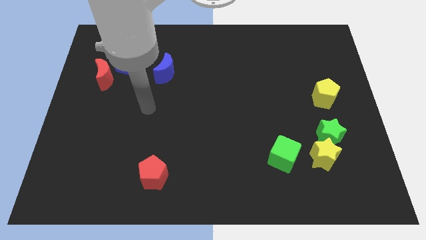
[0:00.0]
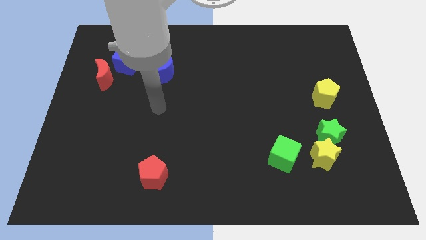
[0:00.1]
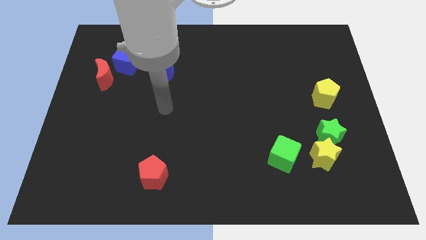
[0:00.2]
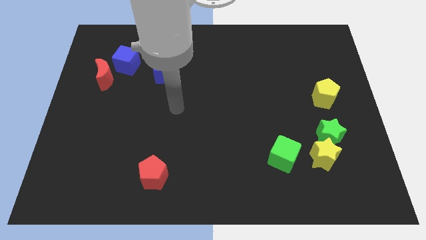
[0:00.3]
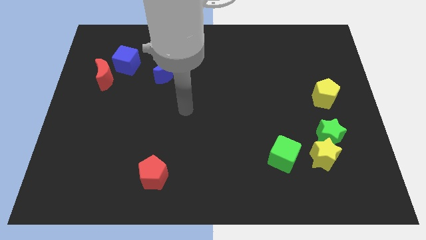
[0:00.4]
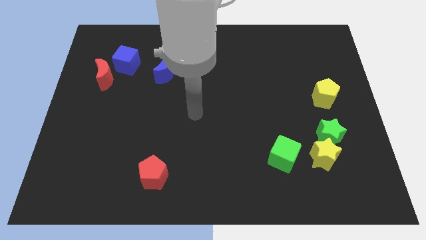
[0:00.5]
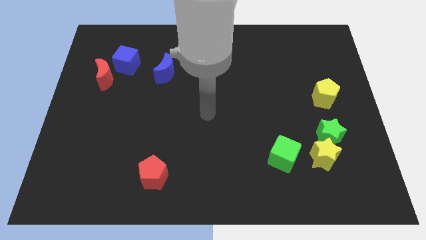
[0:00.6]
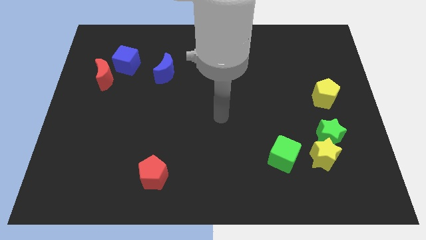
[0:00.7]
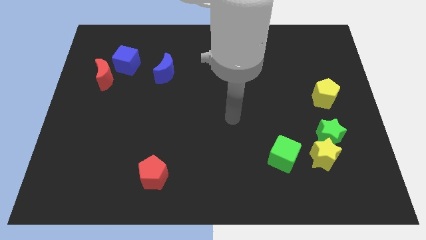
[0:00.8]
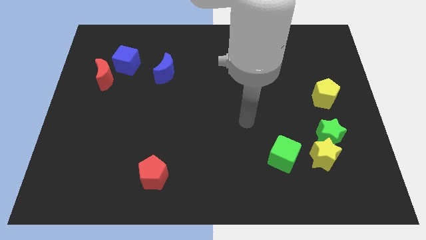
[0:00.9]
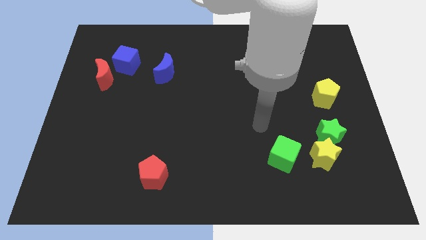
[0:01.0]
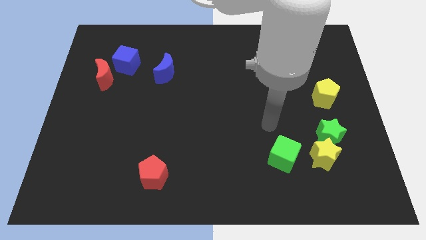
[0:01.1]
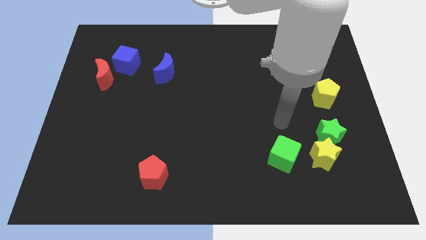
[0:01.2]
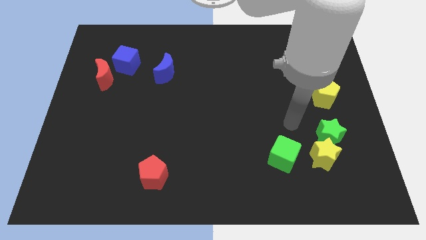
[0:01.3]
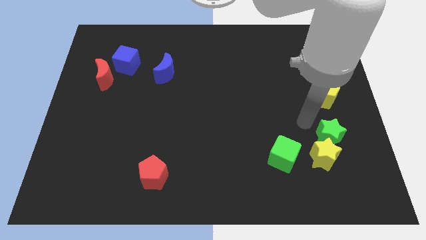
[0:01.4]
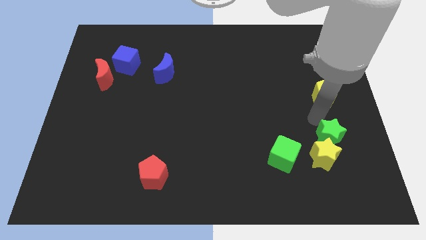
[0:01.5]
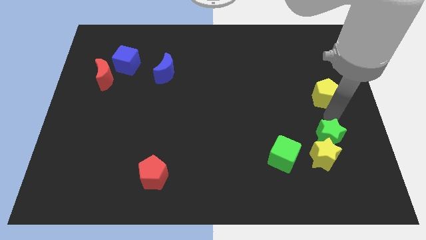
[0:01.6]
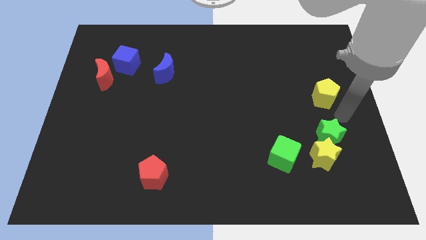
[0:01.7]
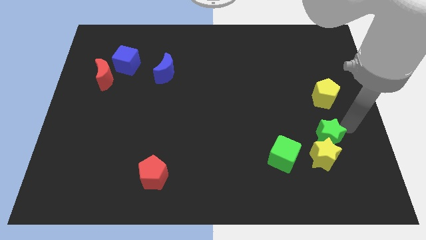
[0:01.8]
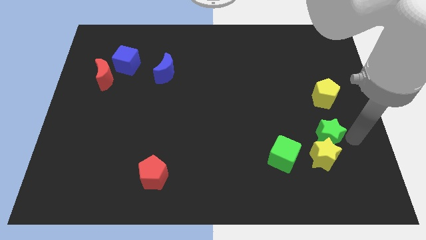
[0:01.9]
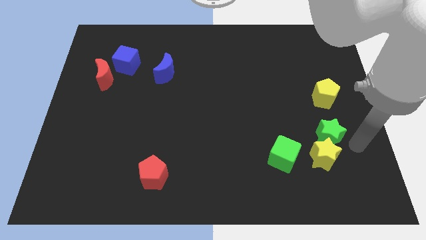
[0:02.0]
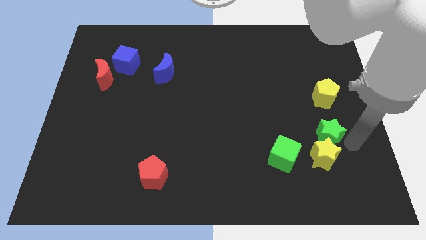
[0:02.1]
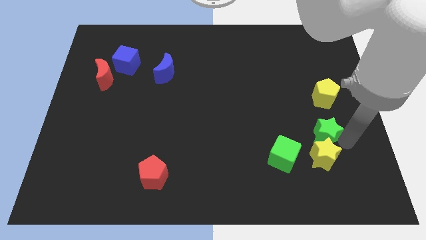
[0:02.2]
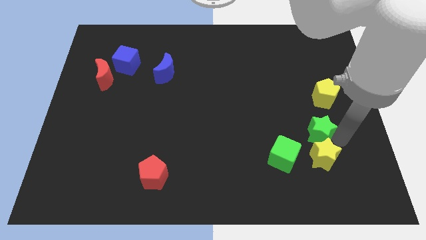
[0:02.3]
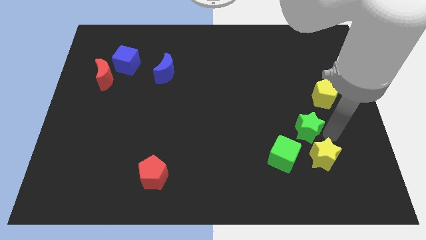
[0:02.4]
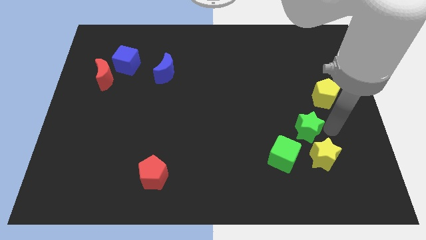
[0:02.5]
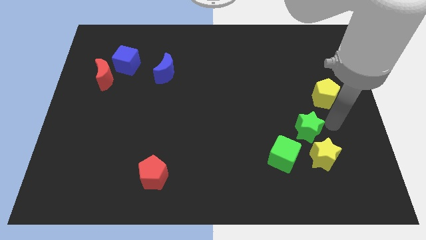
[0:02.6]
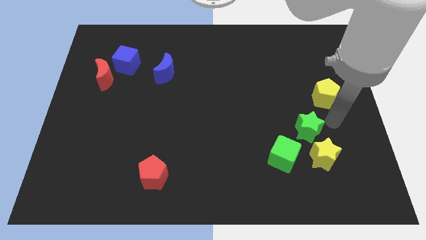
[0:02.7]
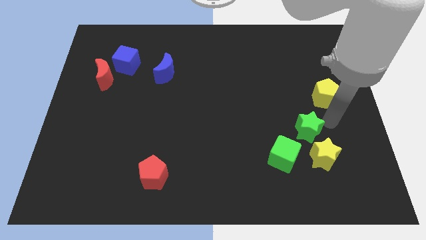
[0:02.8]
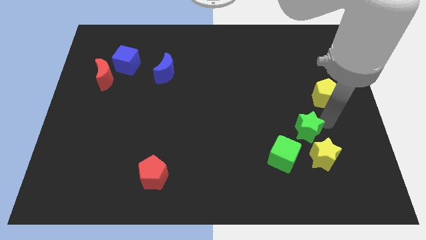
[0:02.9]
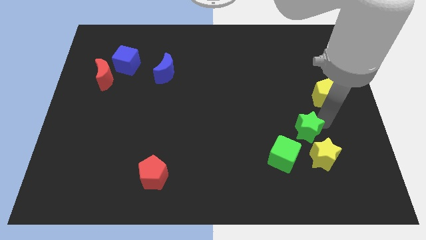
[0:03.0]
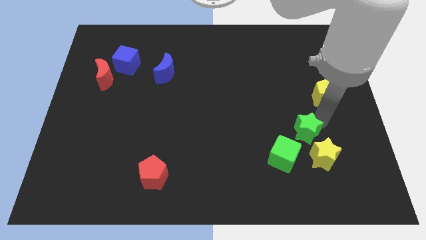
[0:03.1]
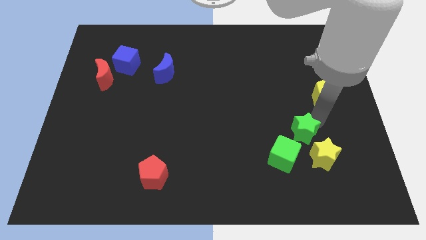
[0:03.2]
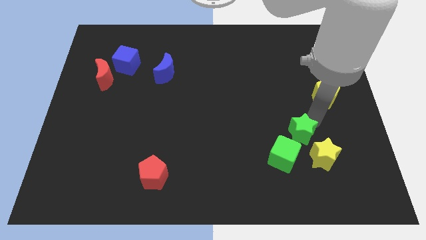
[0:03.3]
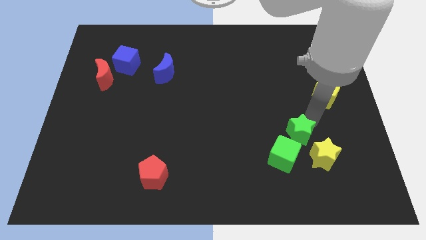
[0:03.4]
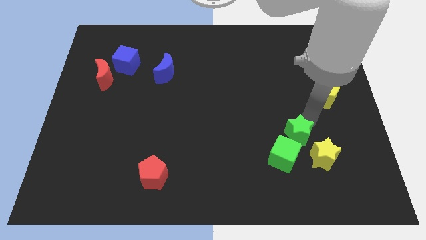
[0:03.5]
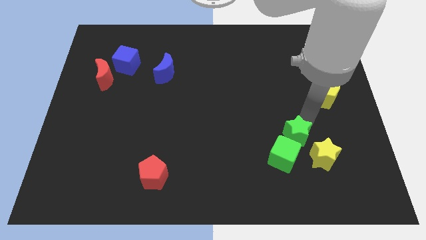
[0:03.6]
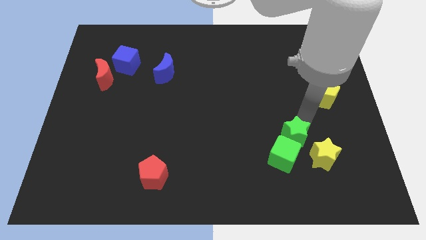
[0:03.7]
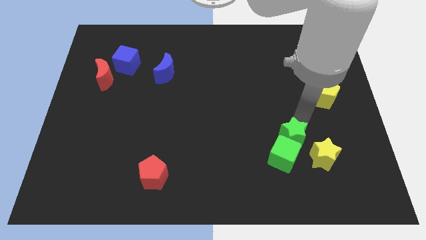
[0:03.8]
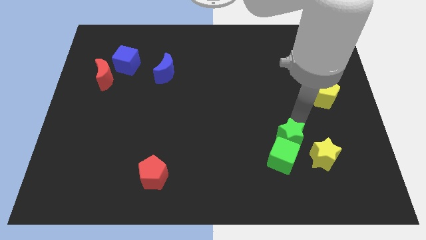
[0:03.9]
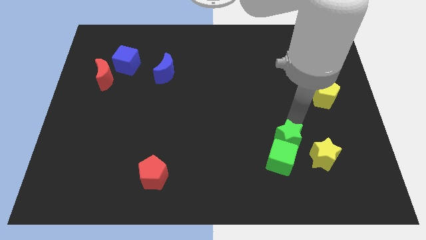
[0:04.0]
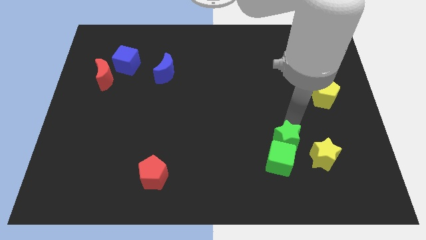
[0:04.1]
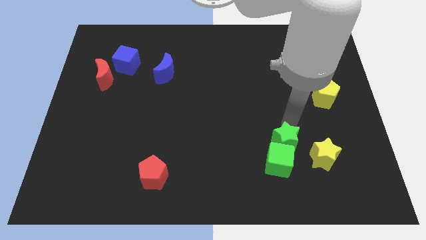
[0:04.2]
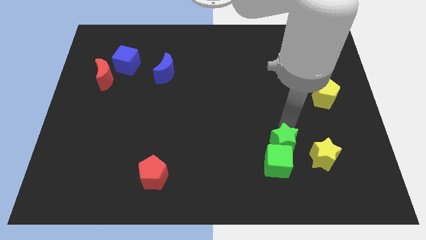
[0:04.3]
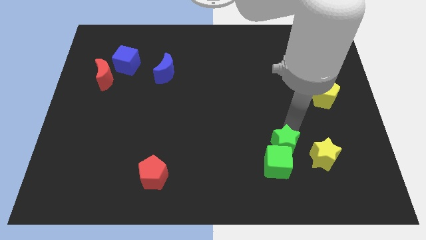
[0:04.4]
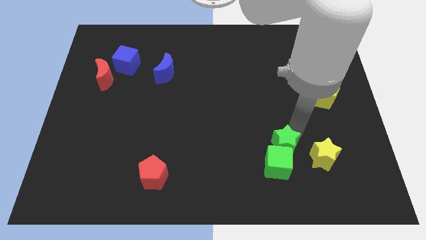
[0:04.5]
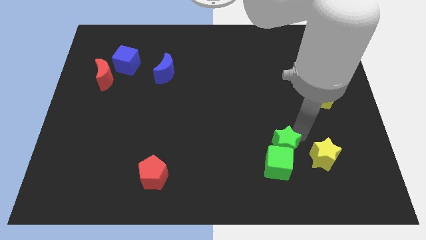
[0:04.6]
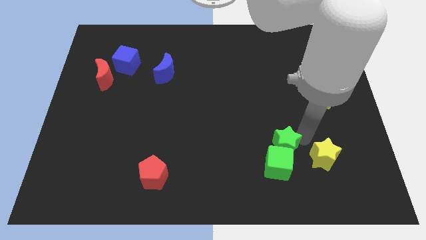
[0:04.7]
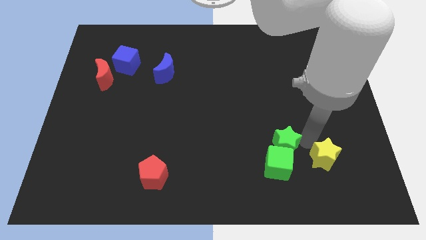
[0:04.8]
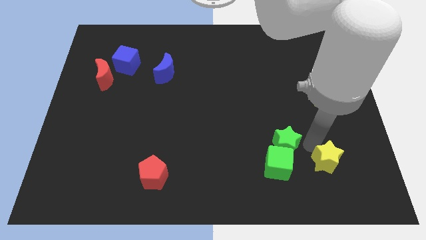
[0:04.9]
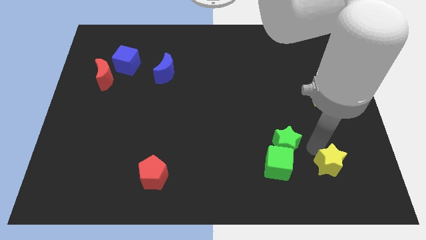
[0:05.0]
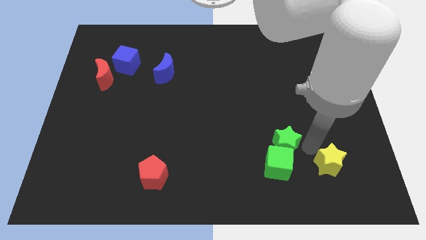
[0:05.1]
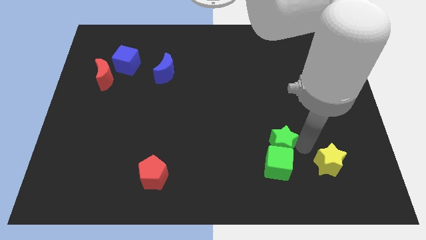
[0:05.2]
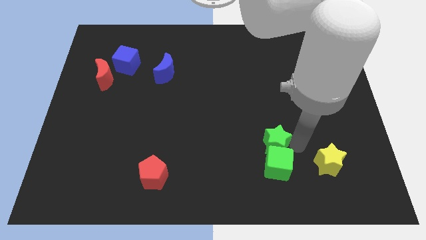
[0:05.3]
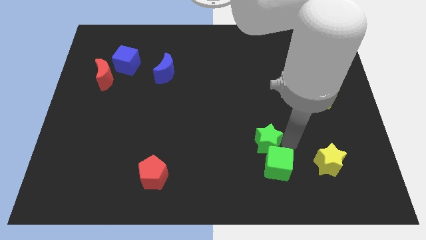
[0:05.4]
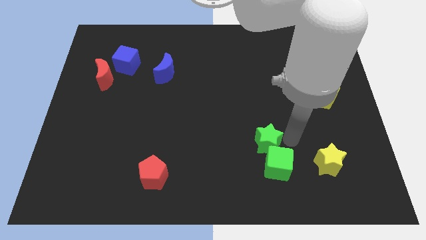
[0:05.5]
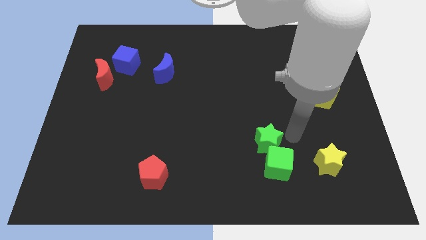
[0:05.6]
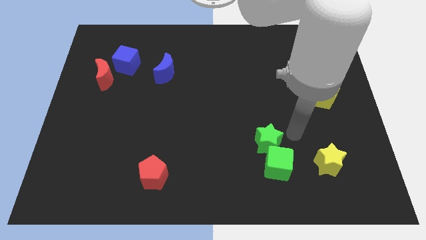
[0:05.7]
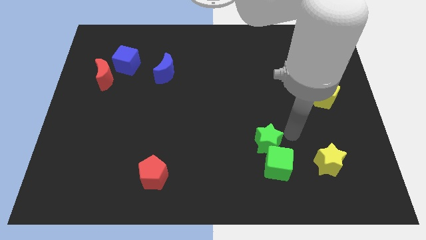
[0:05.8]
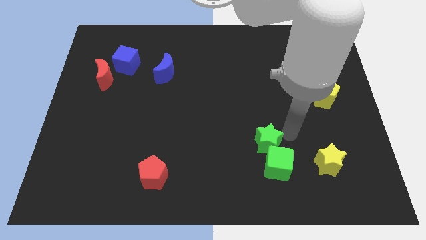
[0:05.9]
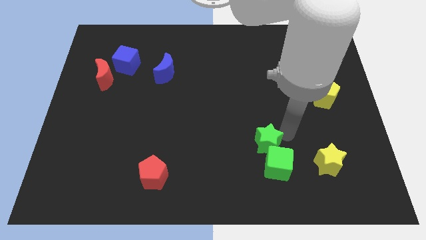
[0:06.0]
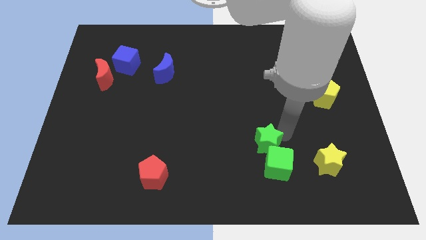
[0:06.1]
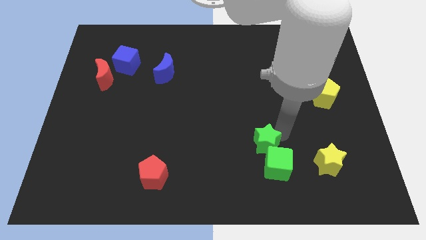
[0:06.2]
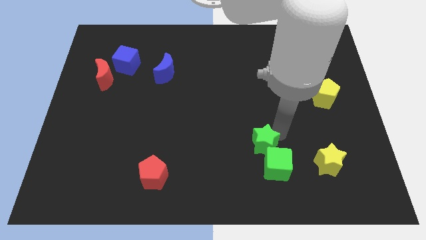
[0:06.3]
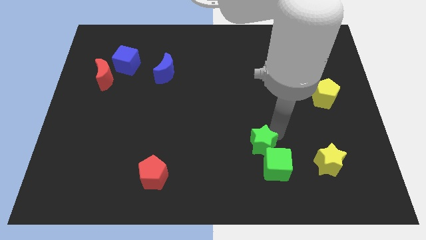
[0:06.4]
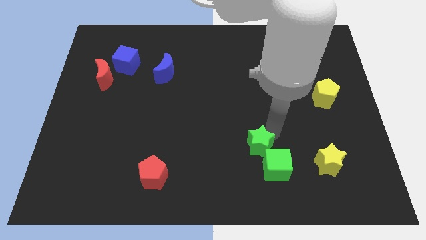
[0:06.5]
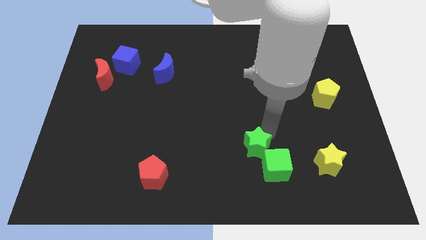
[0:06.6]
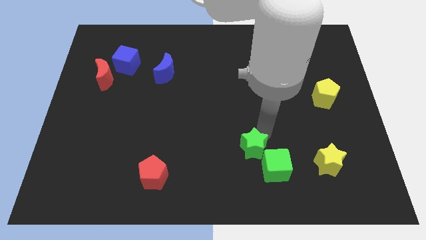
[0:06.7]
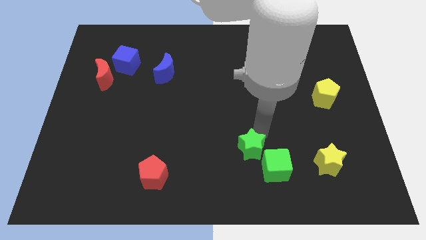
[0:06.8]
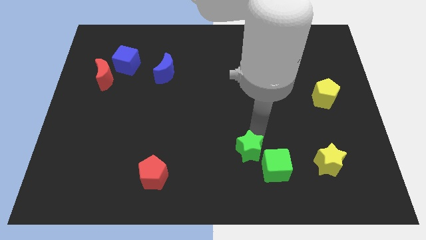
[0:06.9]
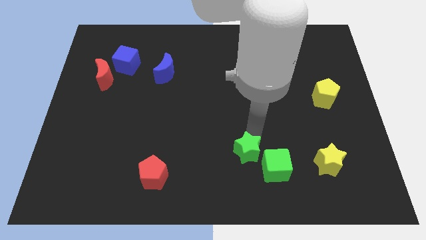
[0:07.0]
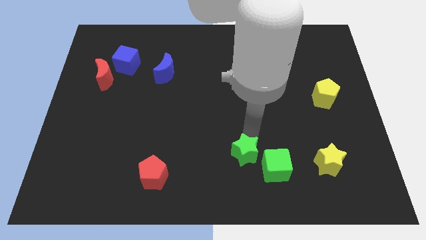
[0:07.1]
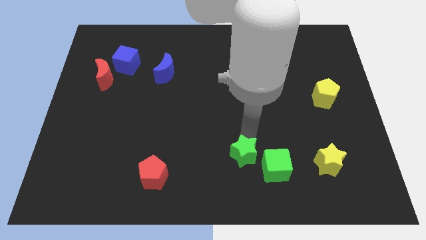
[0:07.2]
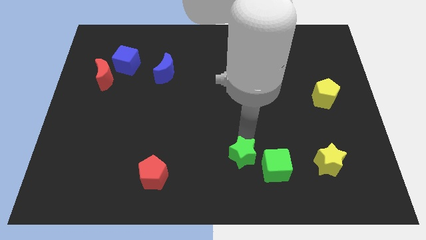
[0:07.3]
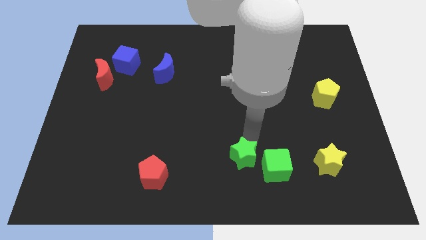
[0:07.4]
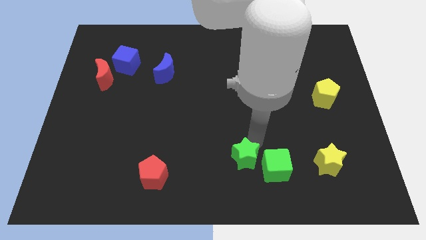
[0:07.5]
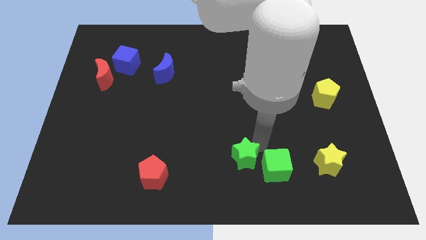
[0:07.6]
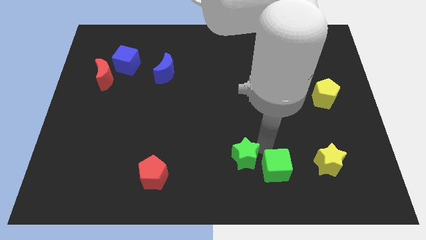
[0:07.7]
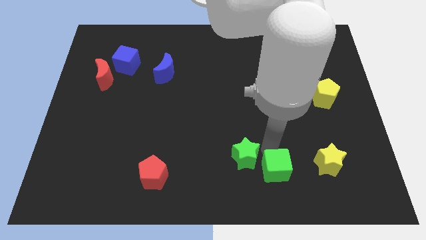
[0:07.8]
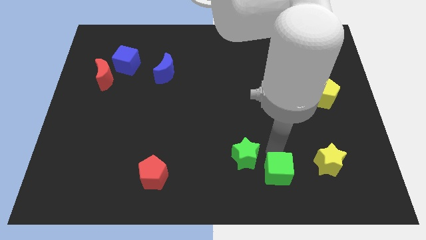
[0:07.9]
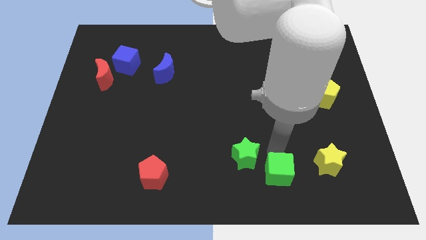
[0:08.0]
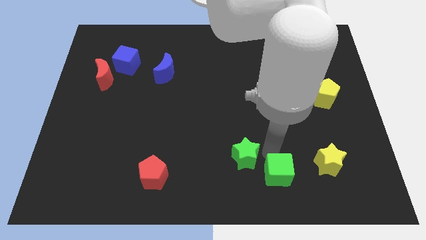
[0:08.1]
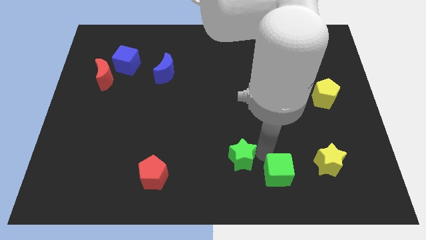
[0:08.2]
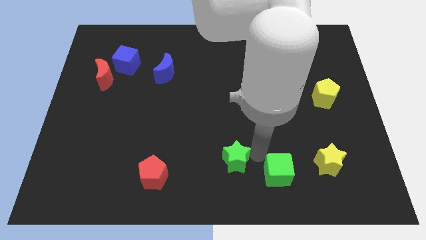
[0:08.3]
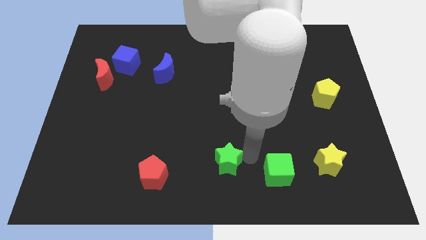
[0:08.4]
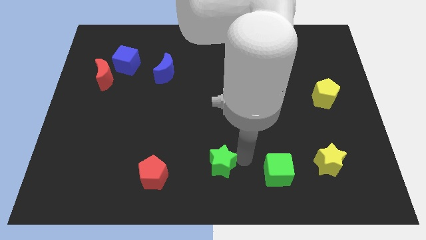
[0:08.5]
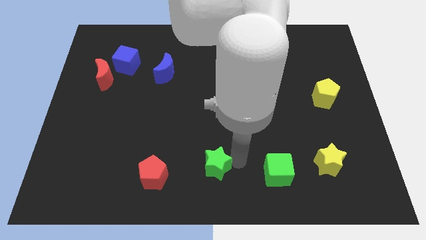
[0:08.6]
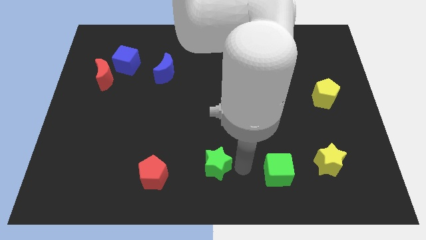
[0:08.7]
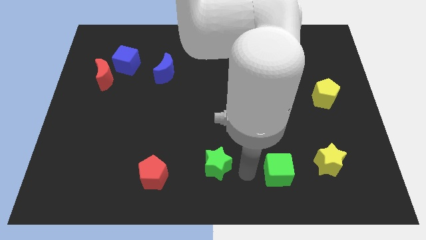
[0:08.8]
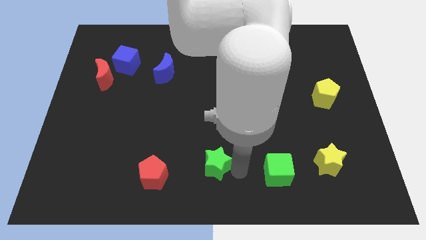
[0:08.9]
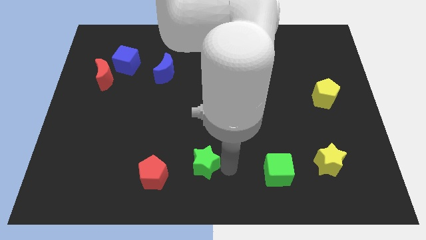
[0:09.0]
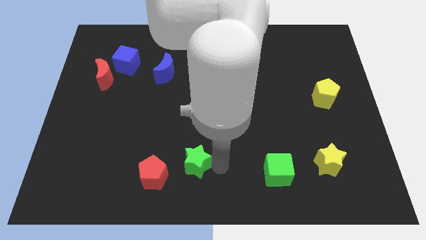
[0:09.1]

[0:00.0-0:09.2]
slide the green star diagonally up and to the right of the red pentagon
